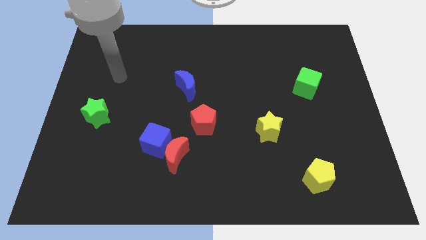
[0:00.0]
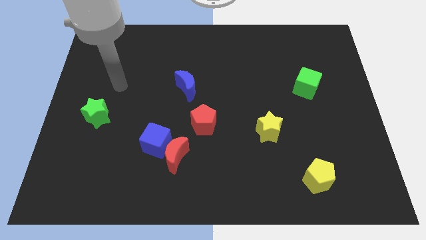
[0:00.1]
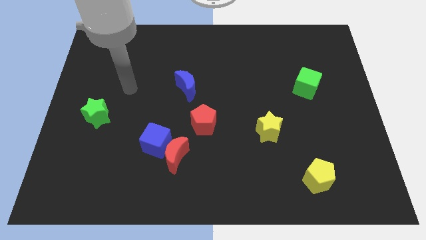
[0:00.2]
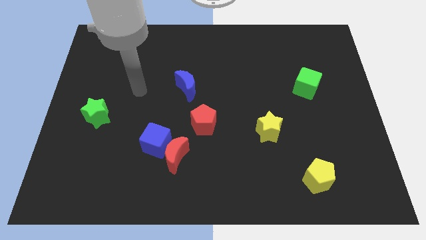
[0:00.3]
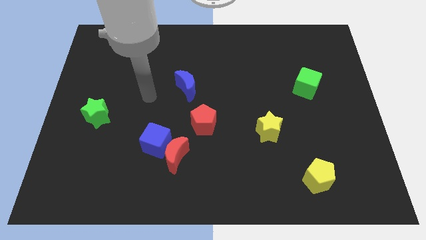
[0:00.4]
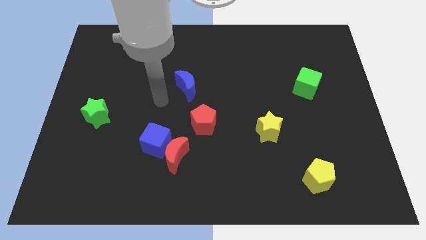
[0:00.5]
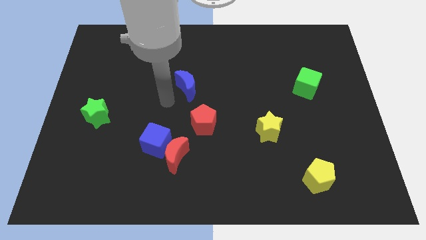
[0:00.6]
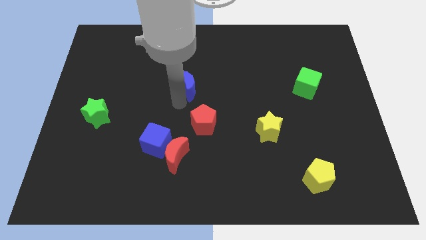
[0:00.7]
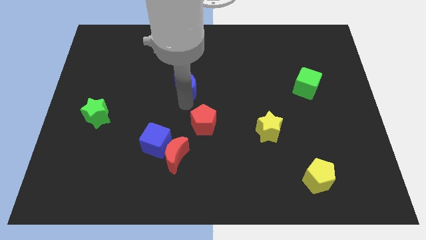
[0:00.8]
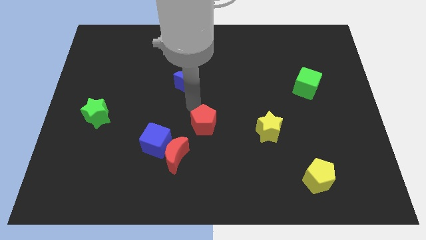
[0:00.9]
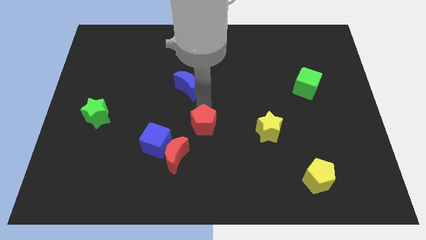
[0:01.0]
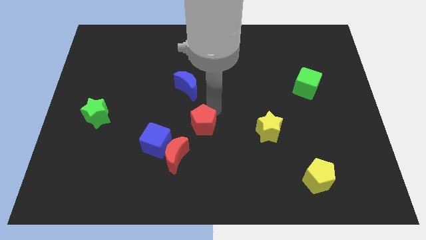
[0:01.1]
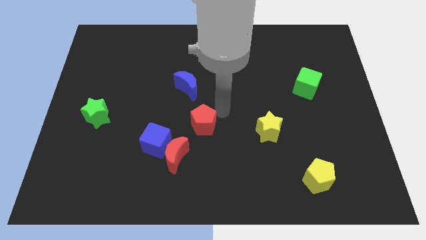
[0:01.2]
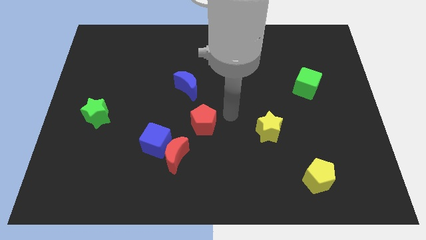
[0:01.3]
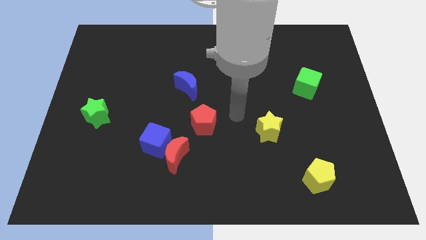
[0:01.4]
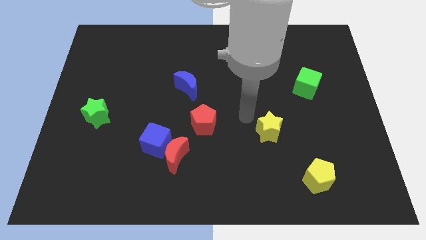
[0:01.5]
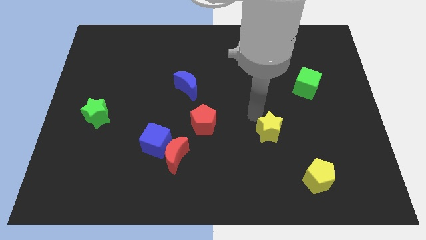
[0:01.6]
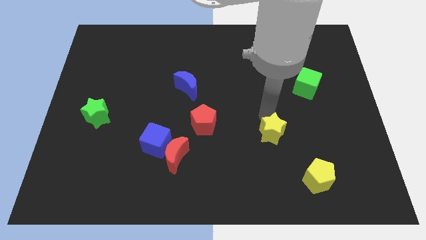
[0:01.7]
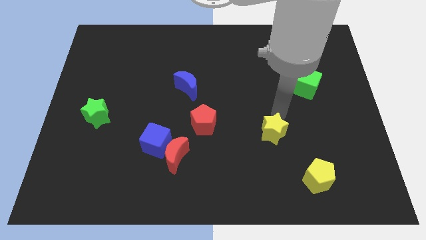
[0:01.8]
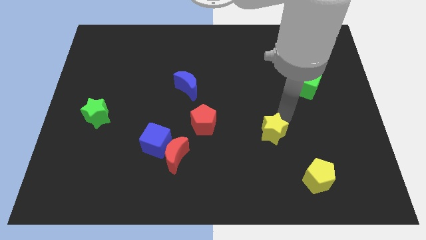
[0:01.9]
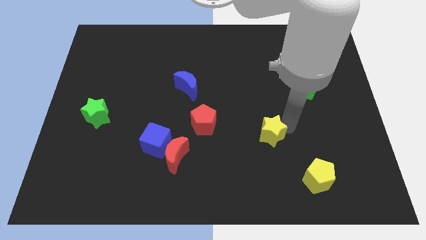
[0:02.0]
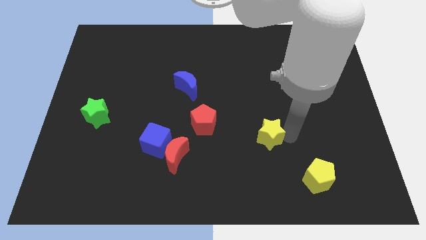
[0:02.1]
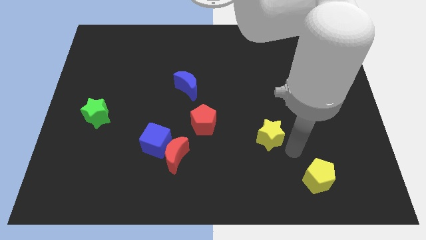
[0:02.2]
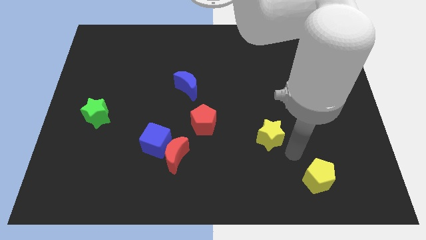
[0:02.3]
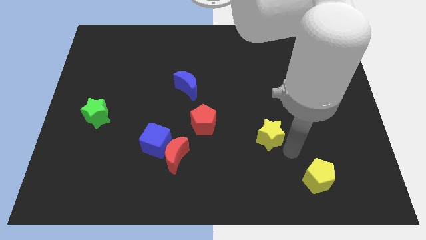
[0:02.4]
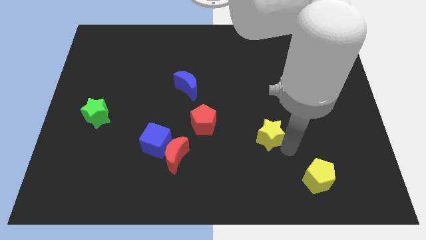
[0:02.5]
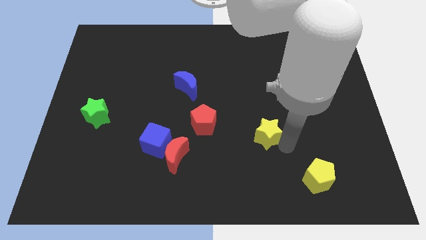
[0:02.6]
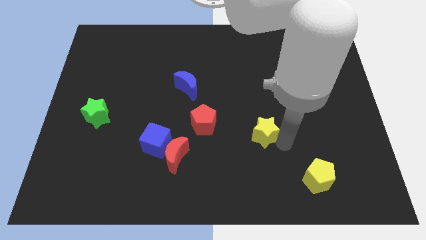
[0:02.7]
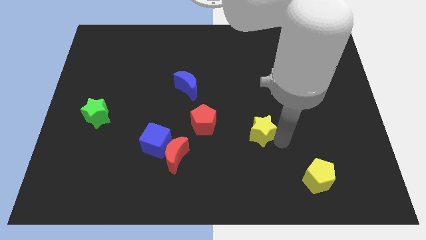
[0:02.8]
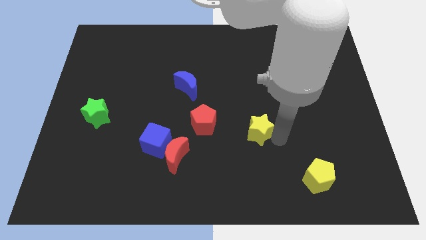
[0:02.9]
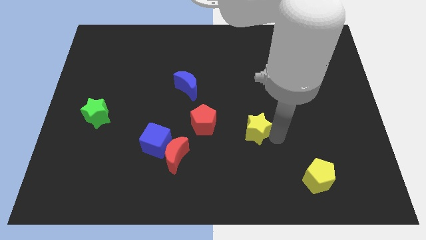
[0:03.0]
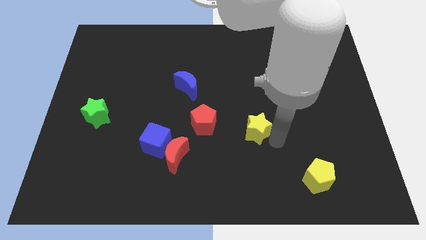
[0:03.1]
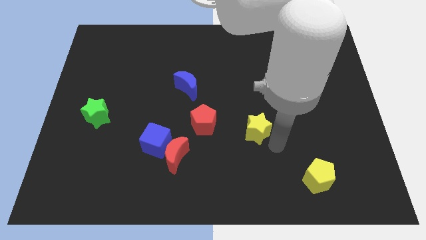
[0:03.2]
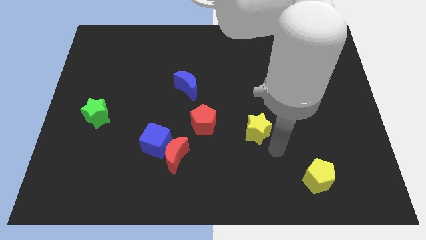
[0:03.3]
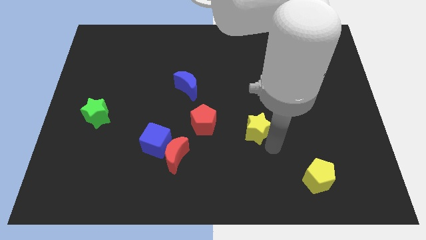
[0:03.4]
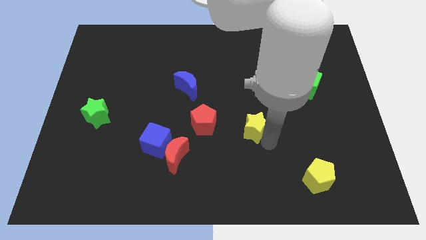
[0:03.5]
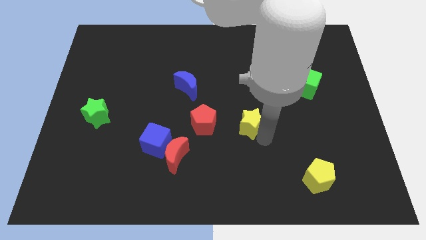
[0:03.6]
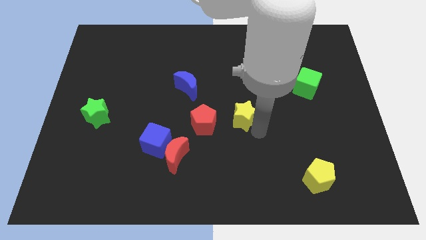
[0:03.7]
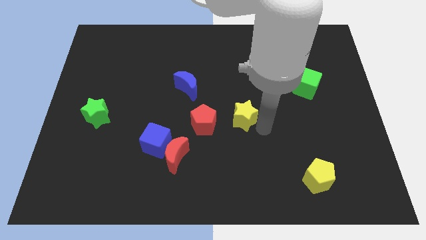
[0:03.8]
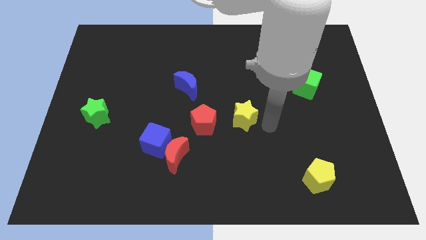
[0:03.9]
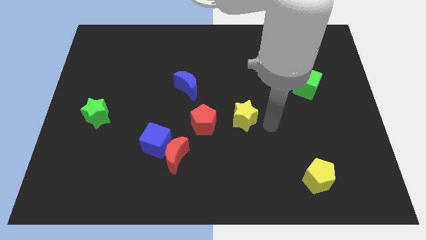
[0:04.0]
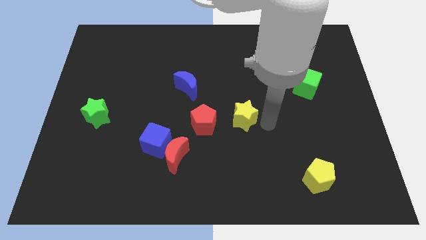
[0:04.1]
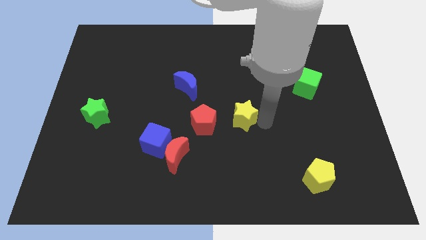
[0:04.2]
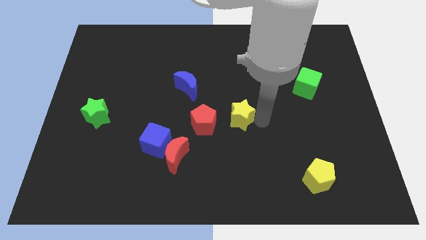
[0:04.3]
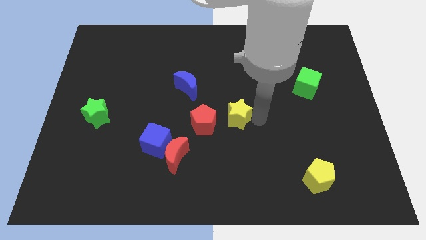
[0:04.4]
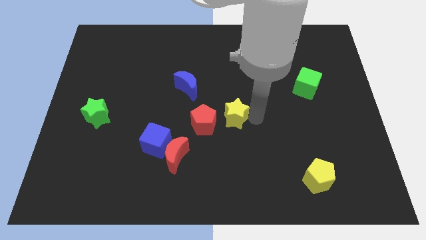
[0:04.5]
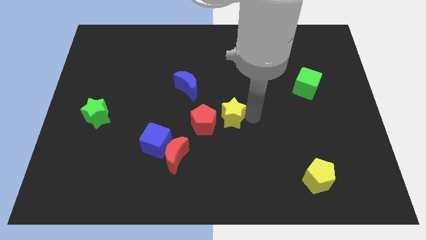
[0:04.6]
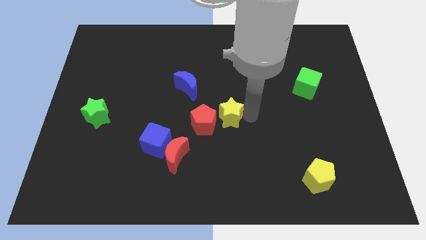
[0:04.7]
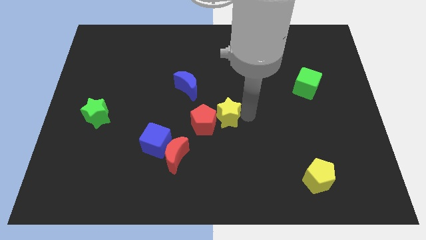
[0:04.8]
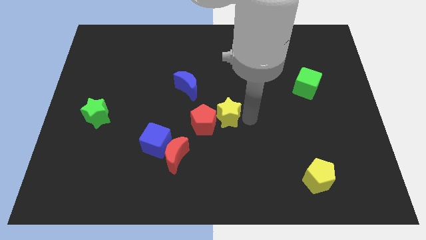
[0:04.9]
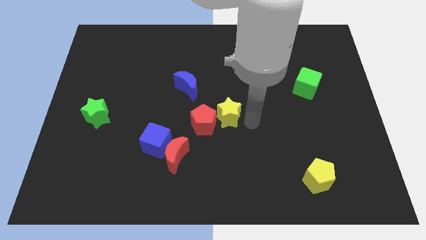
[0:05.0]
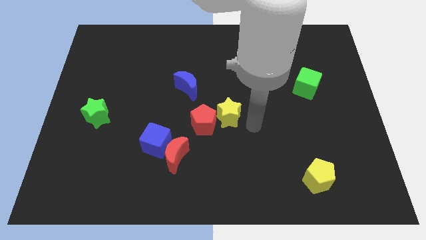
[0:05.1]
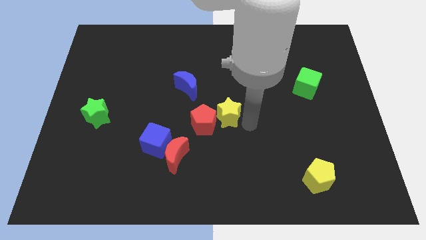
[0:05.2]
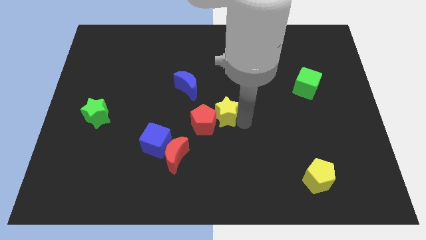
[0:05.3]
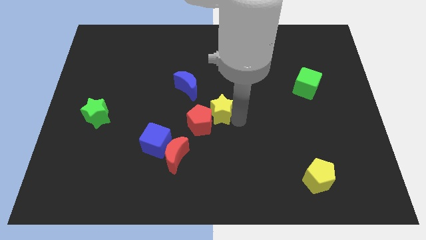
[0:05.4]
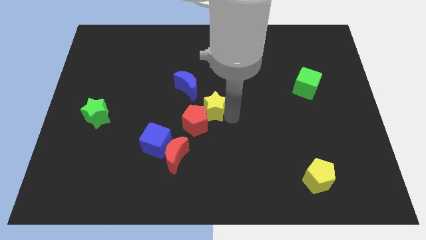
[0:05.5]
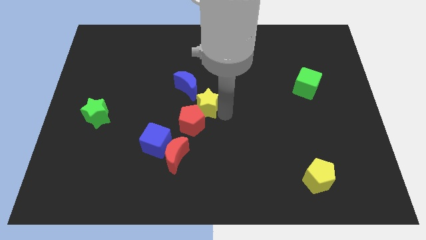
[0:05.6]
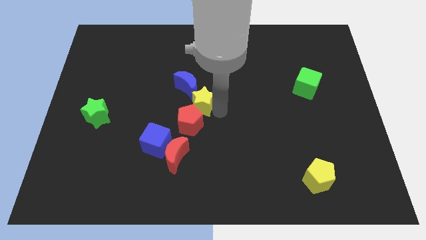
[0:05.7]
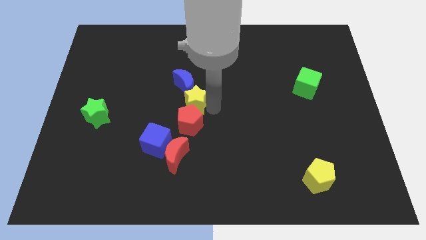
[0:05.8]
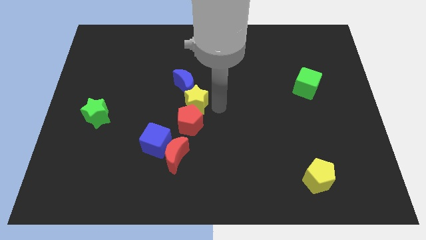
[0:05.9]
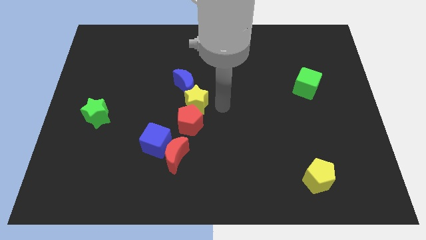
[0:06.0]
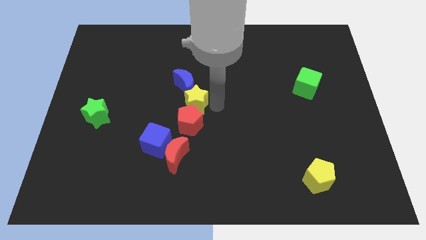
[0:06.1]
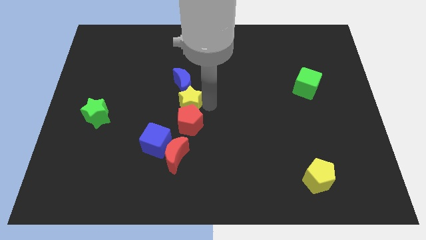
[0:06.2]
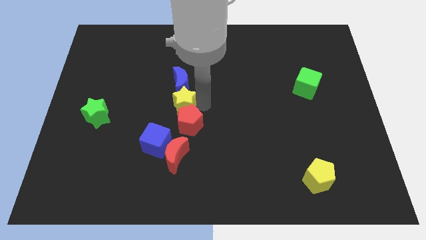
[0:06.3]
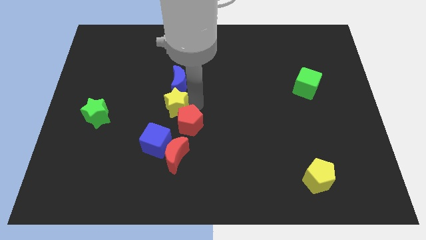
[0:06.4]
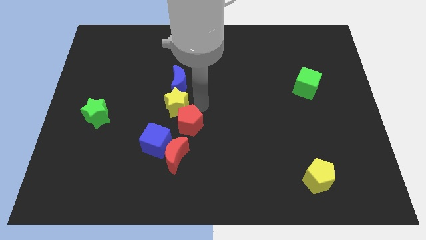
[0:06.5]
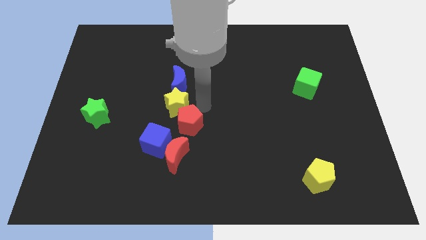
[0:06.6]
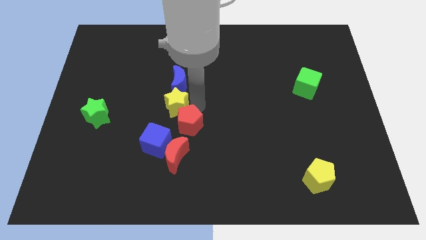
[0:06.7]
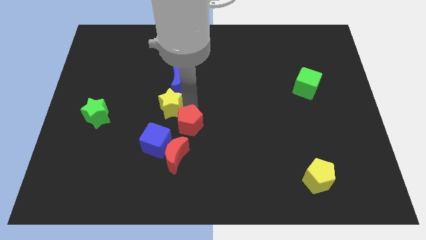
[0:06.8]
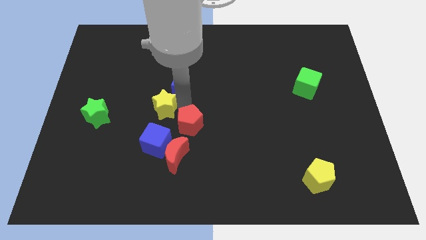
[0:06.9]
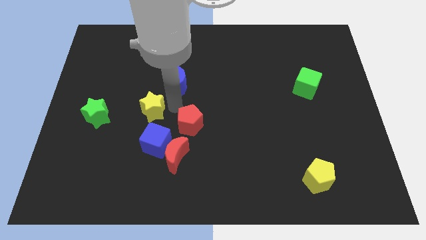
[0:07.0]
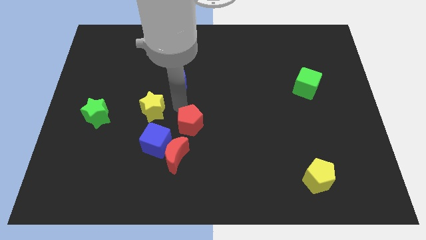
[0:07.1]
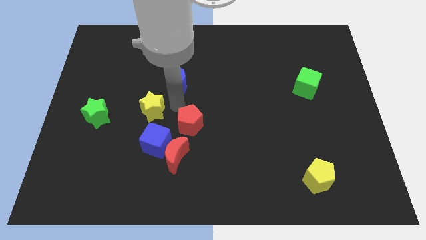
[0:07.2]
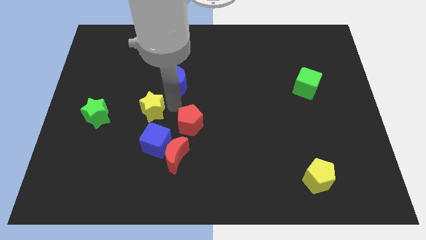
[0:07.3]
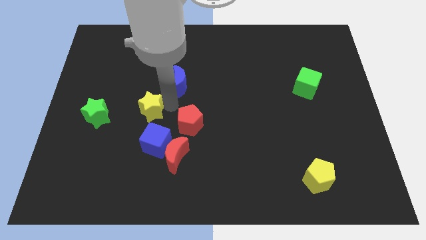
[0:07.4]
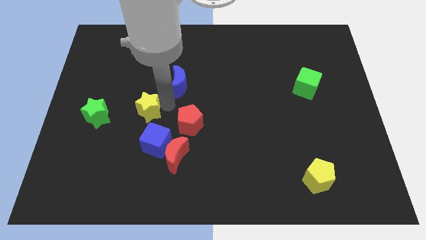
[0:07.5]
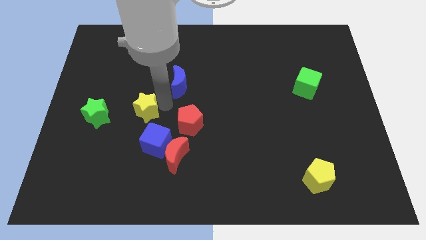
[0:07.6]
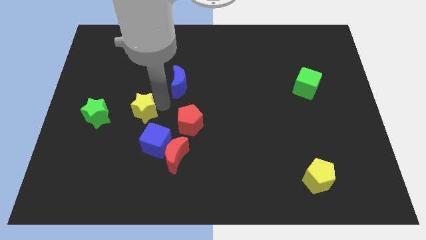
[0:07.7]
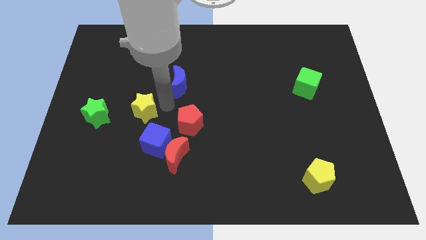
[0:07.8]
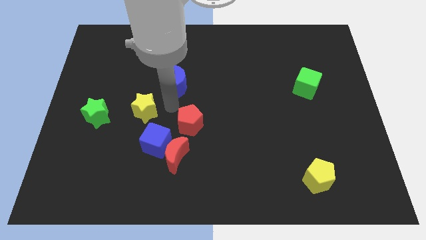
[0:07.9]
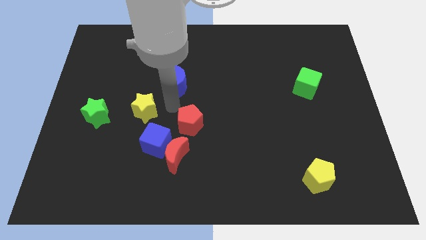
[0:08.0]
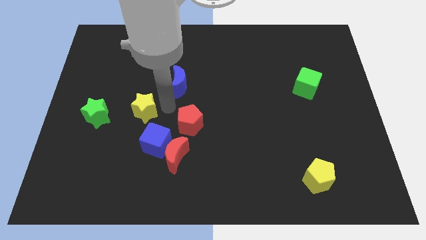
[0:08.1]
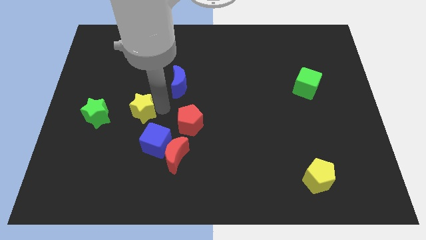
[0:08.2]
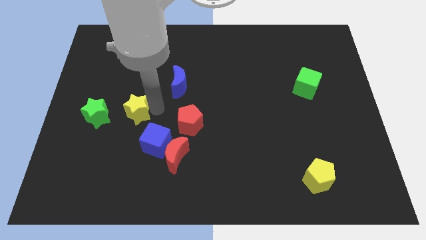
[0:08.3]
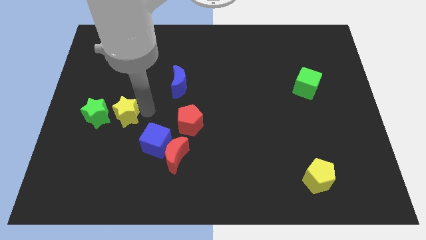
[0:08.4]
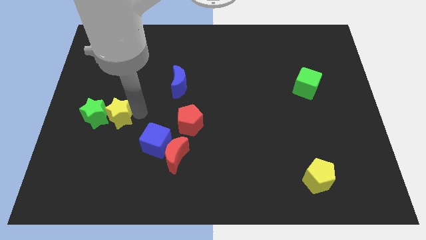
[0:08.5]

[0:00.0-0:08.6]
move the yellow star next to the green star
